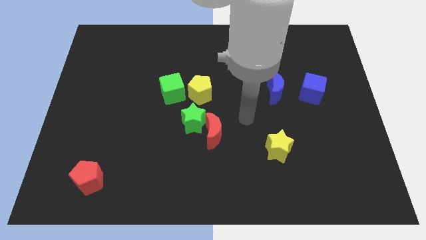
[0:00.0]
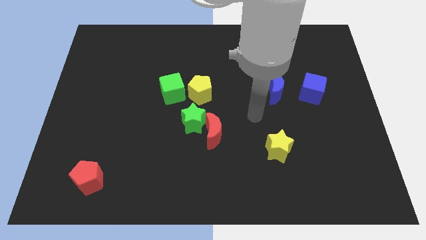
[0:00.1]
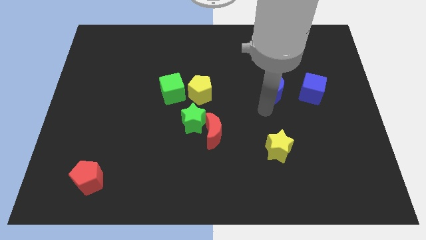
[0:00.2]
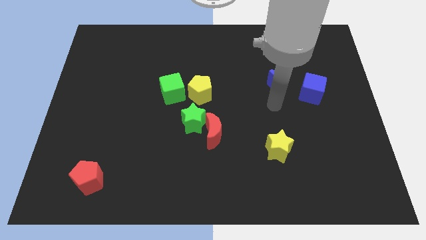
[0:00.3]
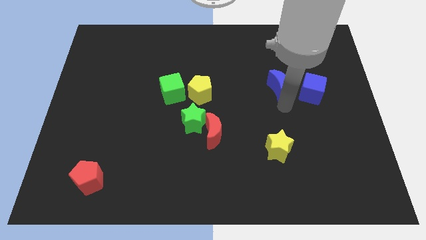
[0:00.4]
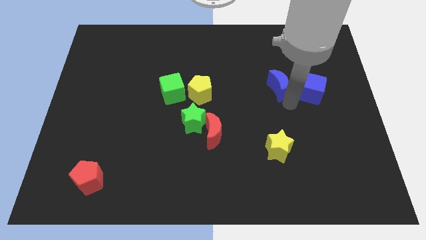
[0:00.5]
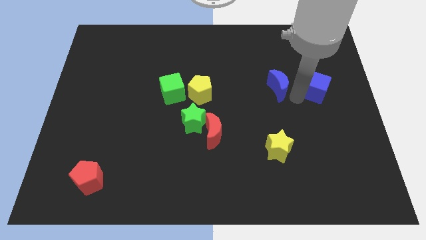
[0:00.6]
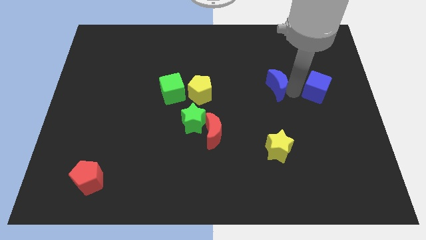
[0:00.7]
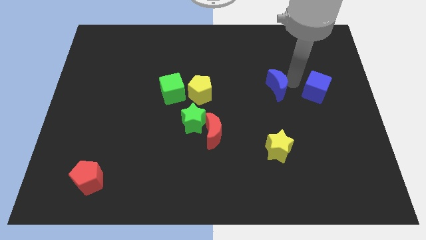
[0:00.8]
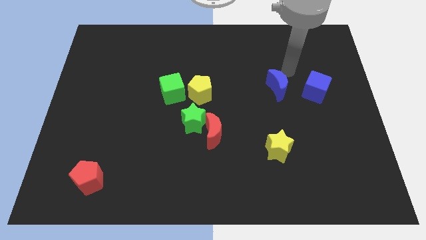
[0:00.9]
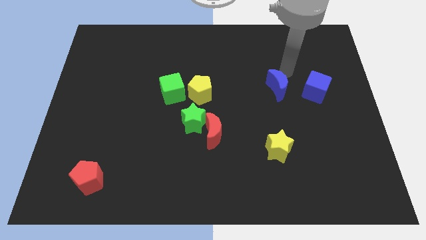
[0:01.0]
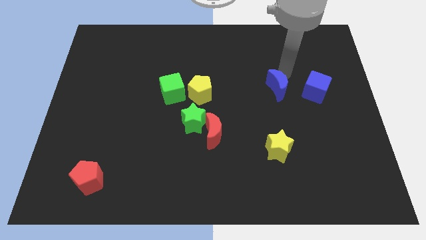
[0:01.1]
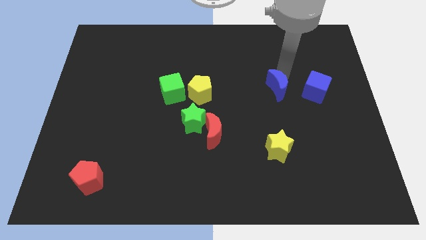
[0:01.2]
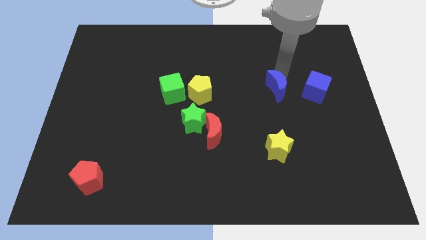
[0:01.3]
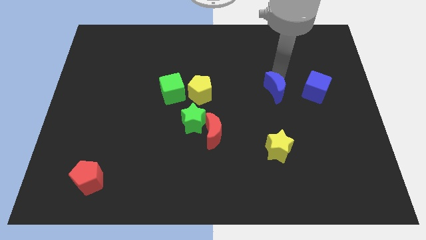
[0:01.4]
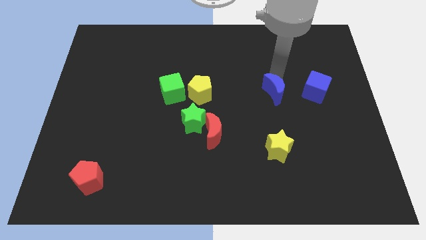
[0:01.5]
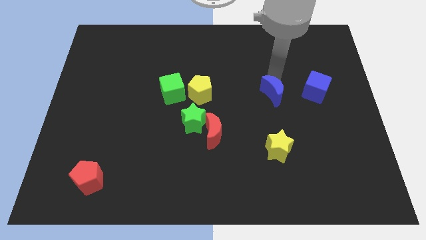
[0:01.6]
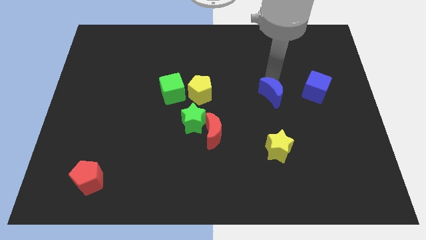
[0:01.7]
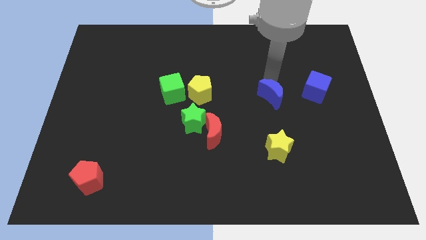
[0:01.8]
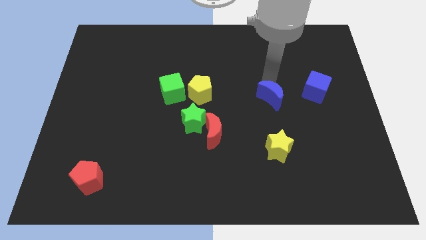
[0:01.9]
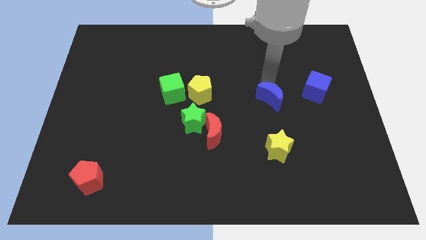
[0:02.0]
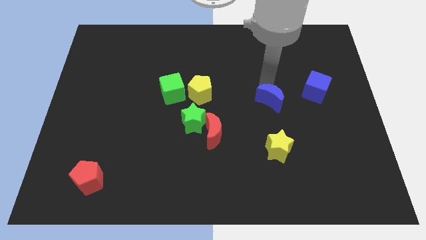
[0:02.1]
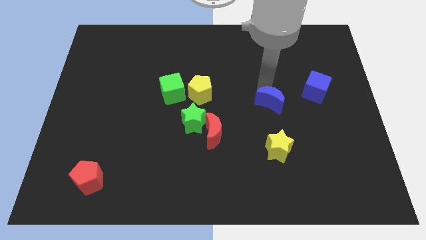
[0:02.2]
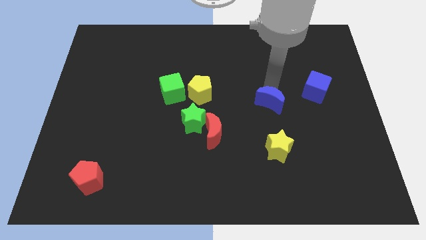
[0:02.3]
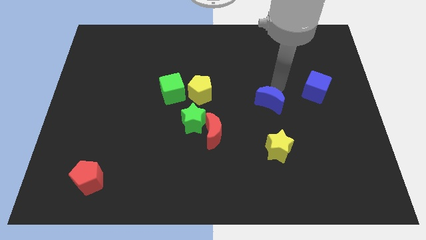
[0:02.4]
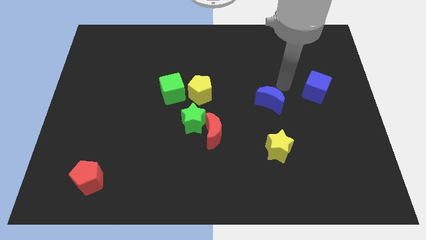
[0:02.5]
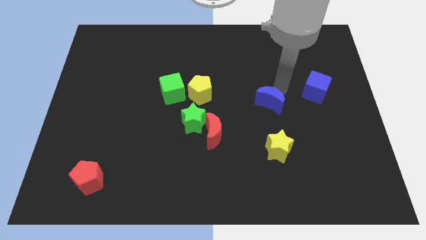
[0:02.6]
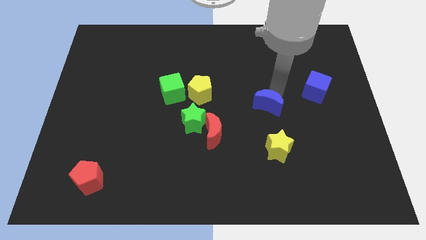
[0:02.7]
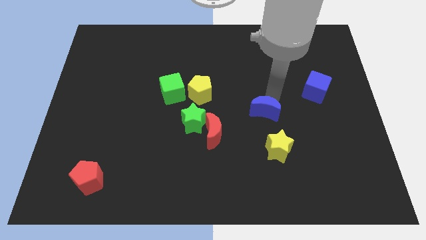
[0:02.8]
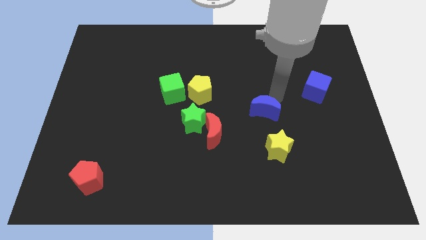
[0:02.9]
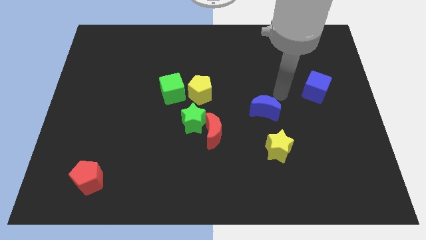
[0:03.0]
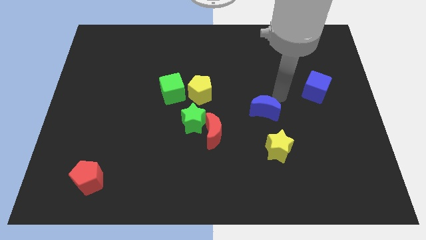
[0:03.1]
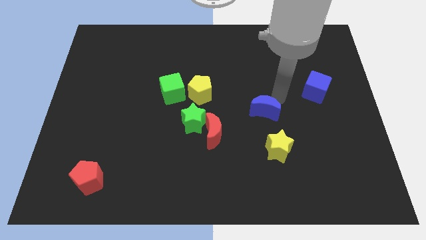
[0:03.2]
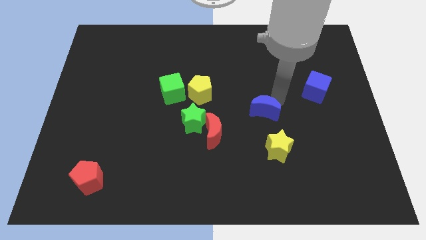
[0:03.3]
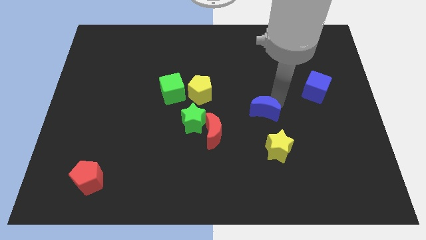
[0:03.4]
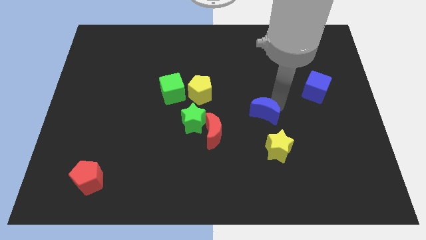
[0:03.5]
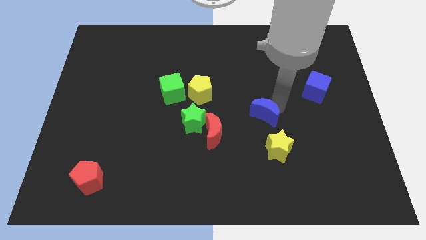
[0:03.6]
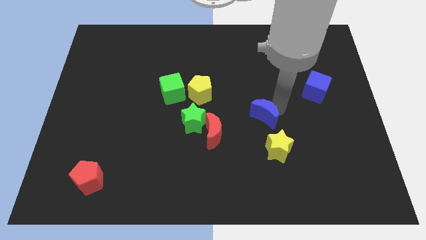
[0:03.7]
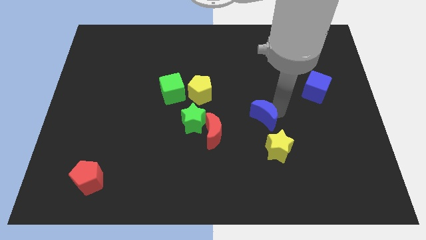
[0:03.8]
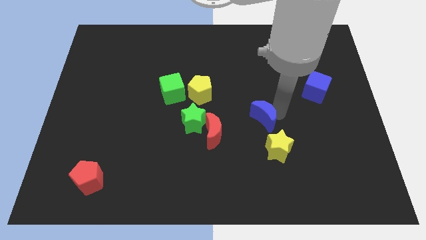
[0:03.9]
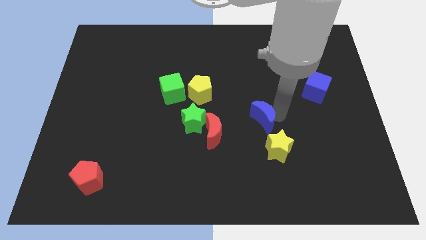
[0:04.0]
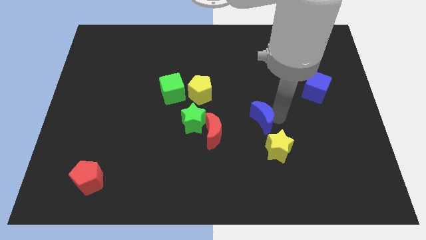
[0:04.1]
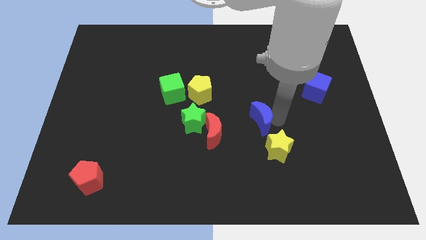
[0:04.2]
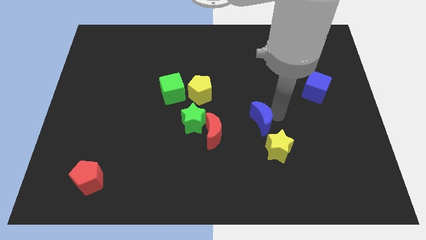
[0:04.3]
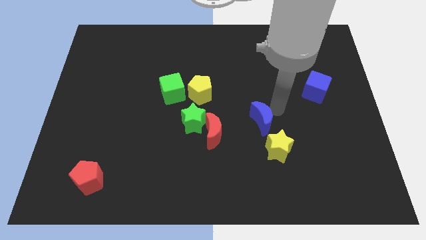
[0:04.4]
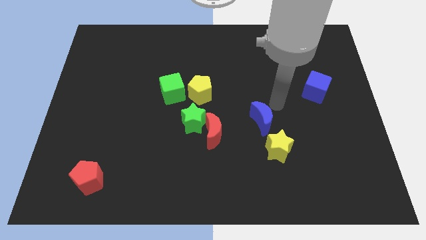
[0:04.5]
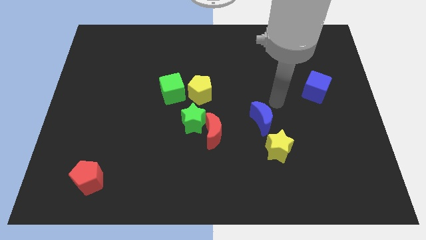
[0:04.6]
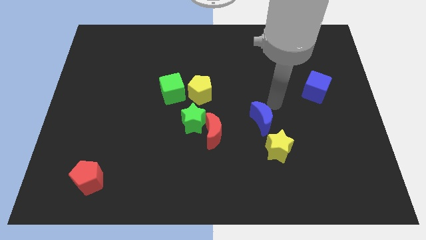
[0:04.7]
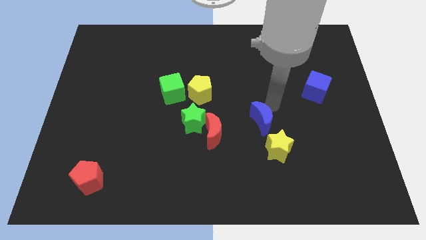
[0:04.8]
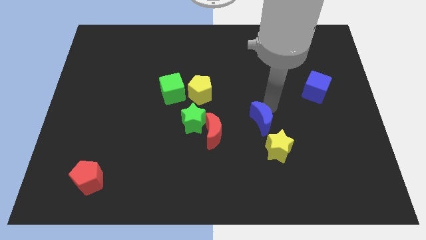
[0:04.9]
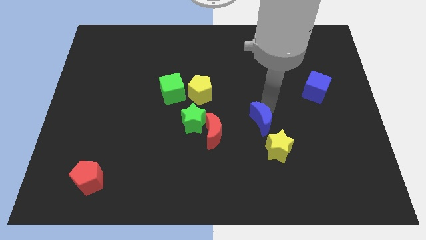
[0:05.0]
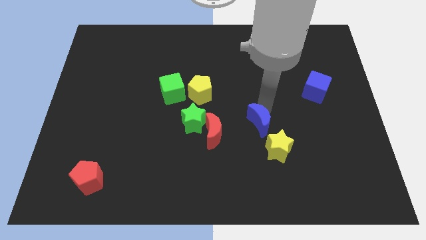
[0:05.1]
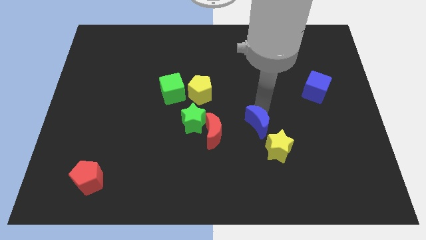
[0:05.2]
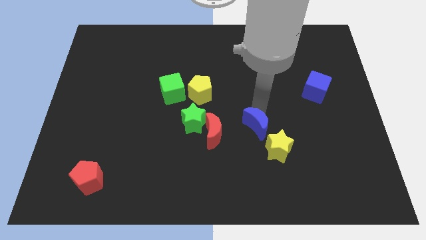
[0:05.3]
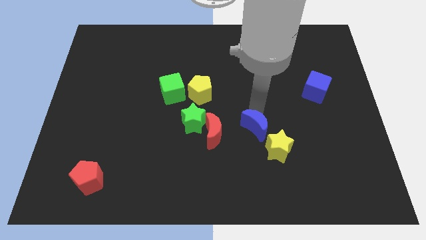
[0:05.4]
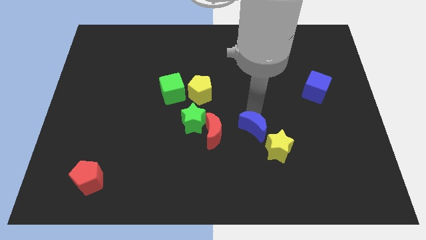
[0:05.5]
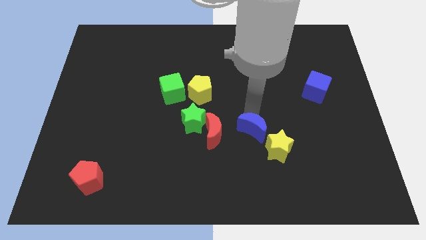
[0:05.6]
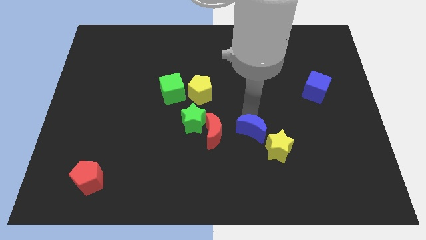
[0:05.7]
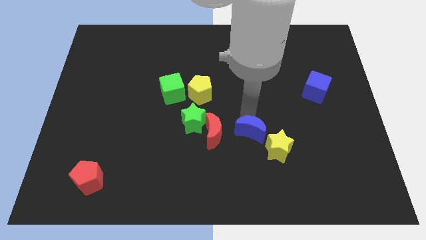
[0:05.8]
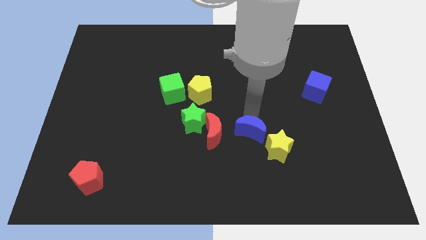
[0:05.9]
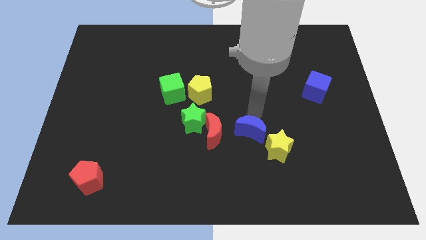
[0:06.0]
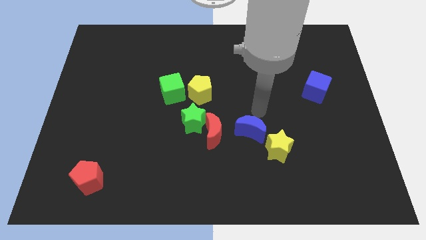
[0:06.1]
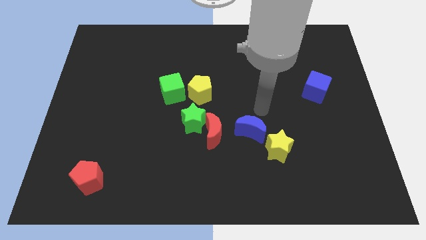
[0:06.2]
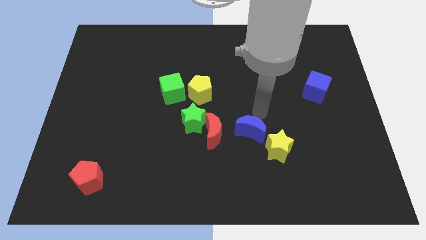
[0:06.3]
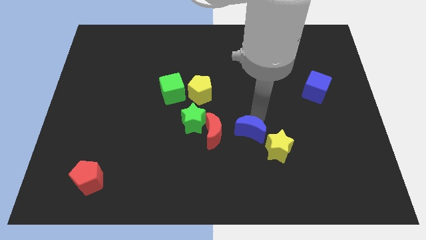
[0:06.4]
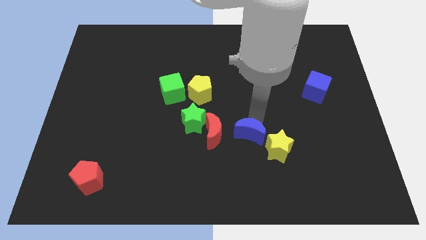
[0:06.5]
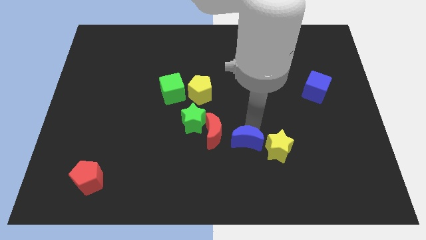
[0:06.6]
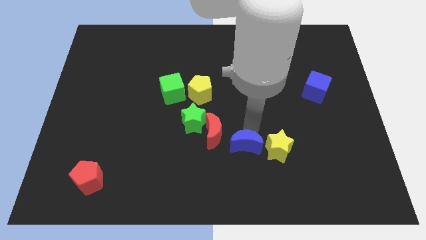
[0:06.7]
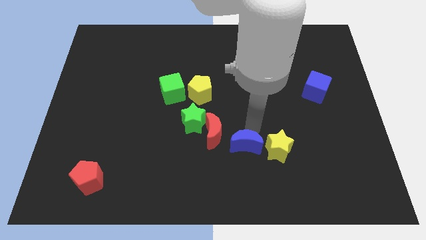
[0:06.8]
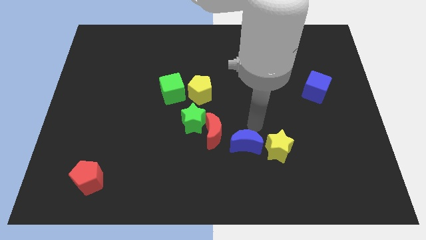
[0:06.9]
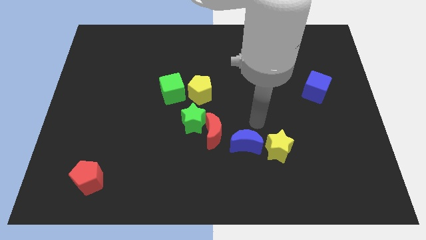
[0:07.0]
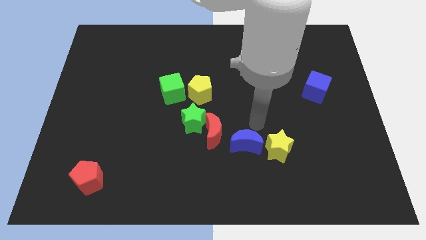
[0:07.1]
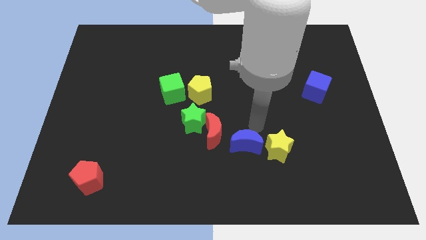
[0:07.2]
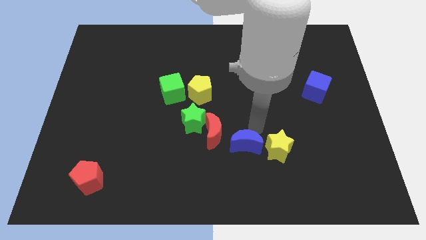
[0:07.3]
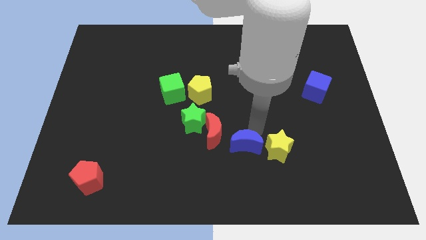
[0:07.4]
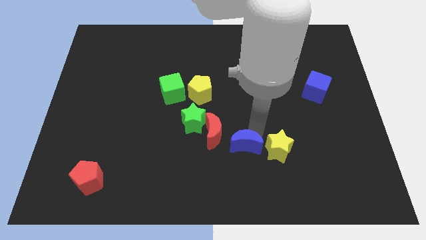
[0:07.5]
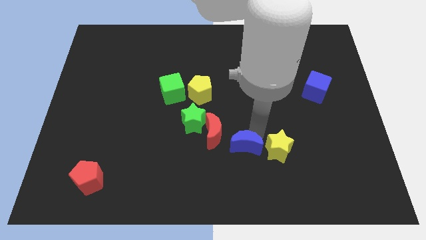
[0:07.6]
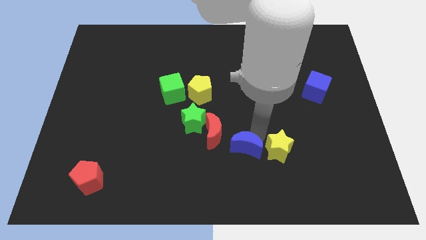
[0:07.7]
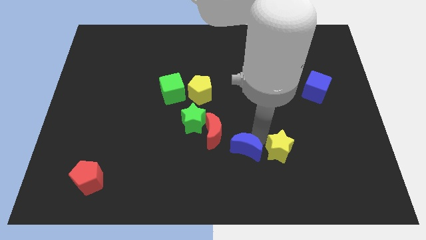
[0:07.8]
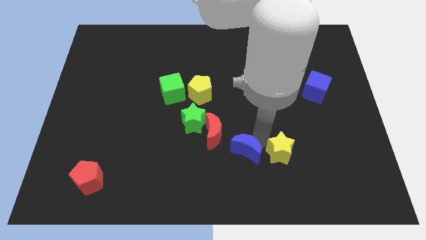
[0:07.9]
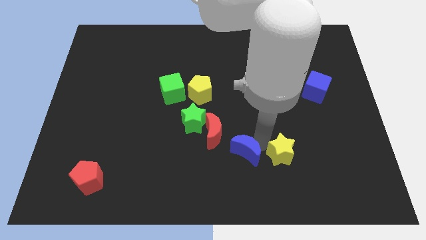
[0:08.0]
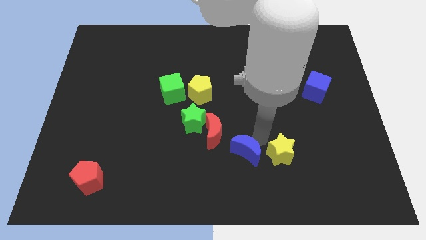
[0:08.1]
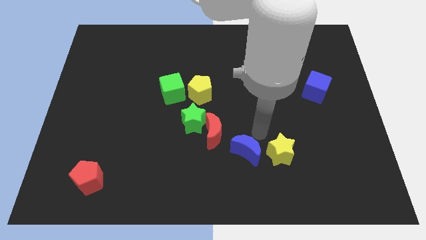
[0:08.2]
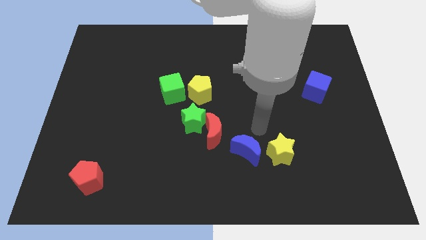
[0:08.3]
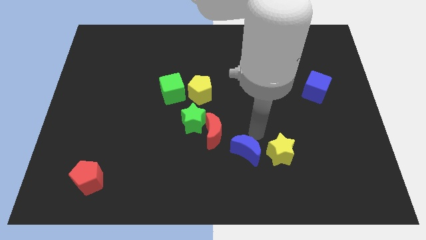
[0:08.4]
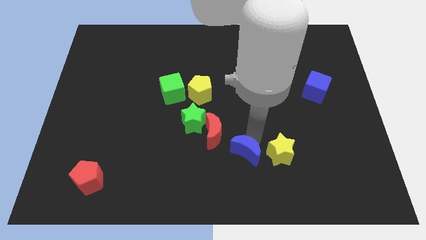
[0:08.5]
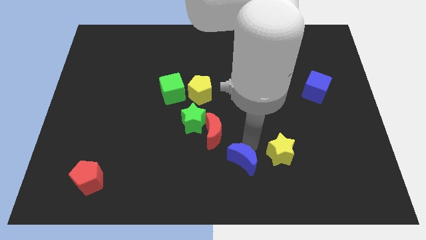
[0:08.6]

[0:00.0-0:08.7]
move the blue moon to the bottom side
